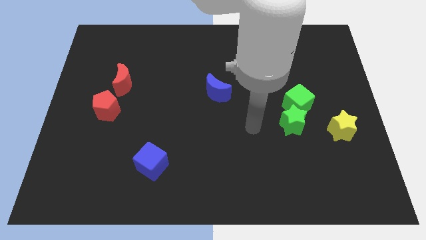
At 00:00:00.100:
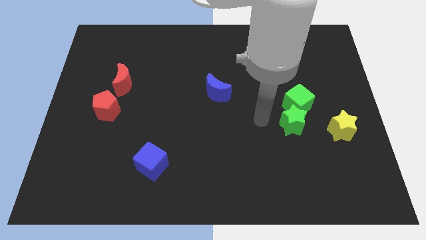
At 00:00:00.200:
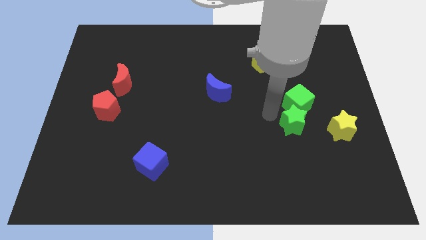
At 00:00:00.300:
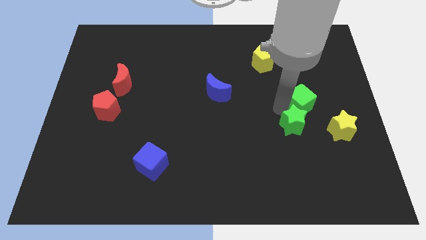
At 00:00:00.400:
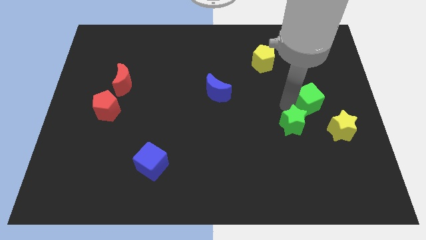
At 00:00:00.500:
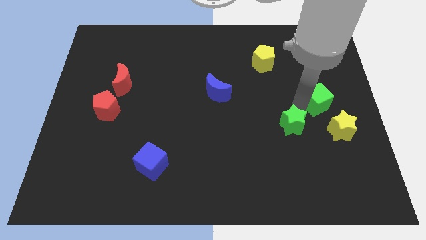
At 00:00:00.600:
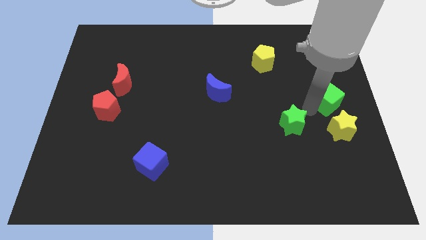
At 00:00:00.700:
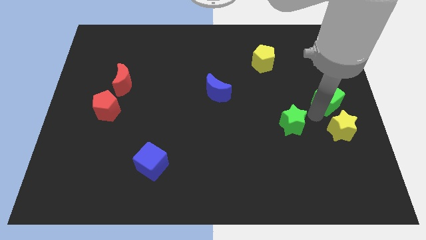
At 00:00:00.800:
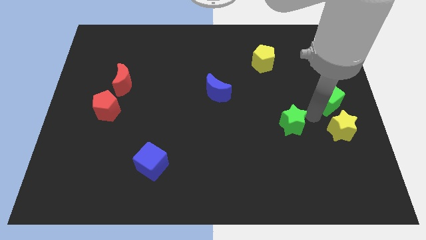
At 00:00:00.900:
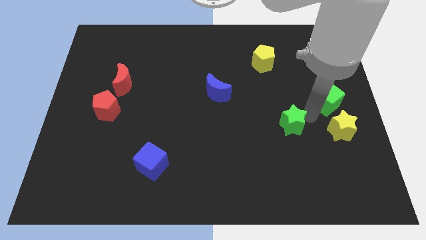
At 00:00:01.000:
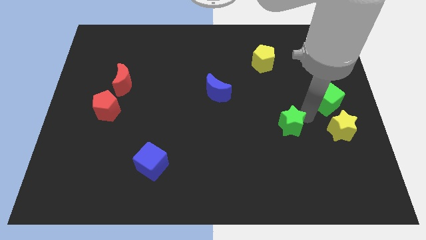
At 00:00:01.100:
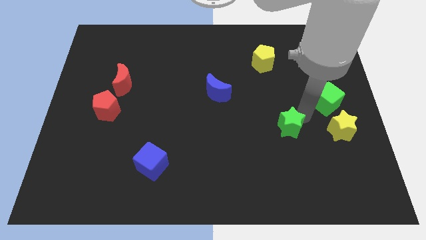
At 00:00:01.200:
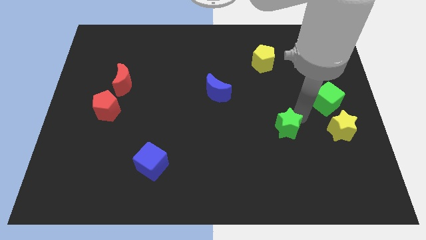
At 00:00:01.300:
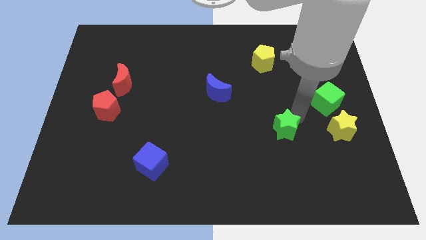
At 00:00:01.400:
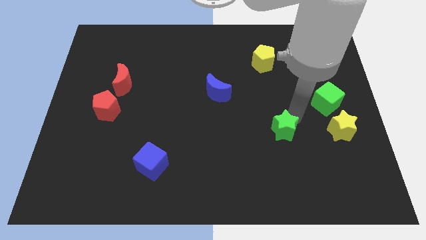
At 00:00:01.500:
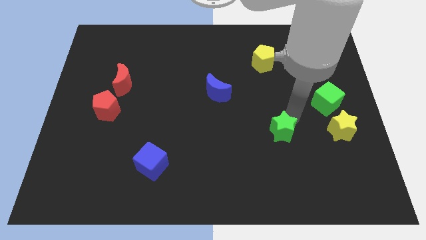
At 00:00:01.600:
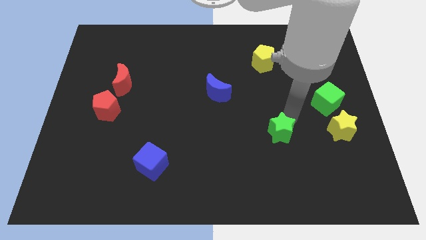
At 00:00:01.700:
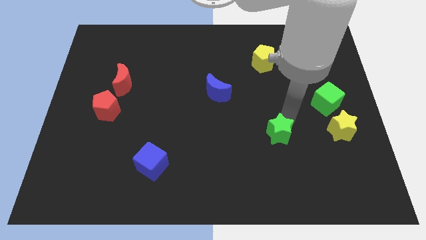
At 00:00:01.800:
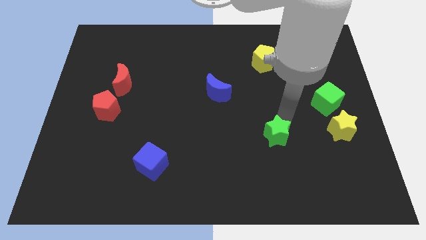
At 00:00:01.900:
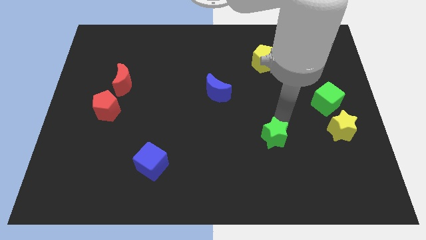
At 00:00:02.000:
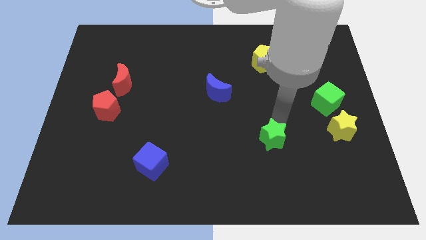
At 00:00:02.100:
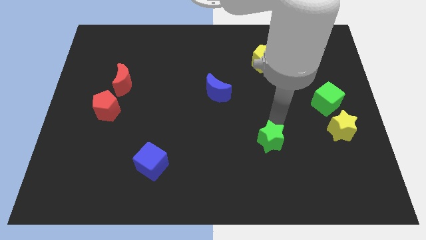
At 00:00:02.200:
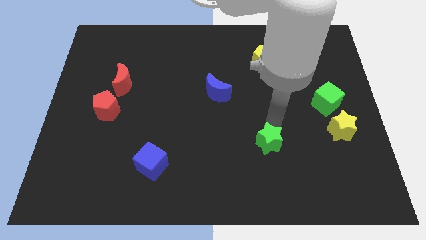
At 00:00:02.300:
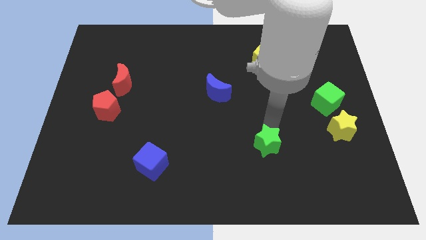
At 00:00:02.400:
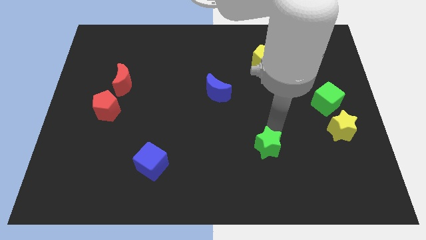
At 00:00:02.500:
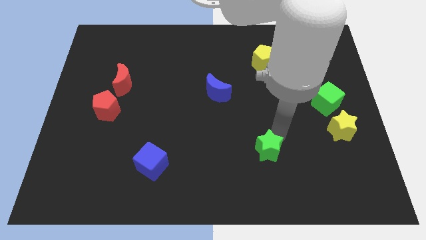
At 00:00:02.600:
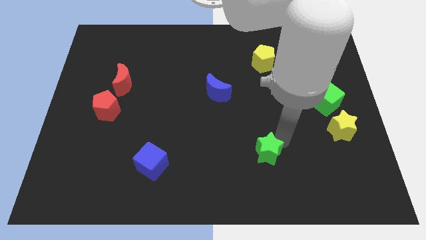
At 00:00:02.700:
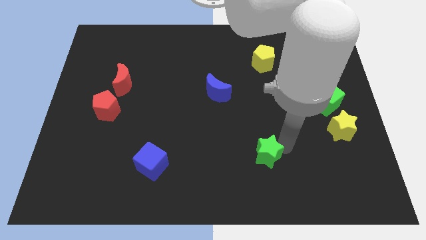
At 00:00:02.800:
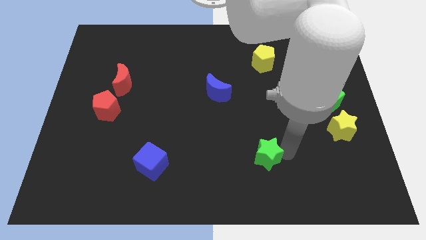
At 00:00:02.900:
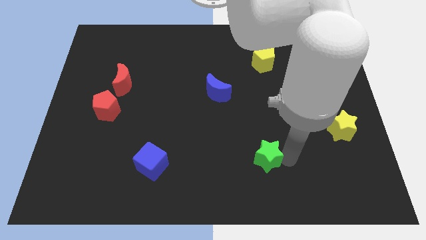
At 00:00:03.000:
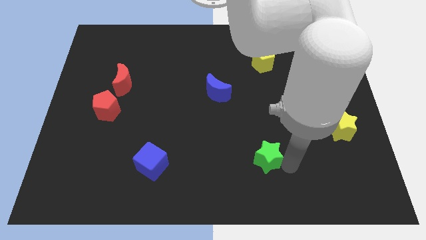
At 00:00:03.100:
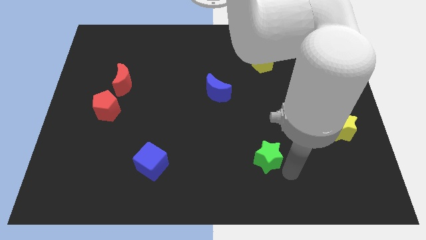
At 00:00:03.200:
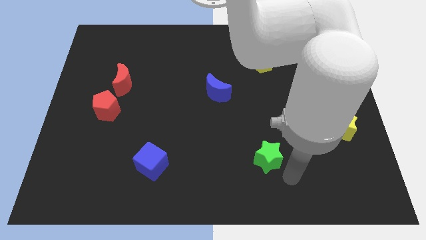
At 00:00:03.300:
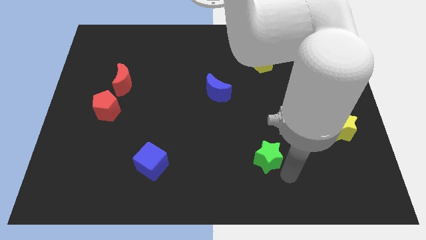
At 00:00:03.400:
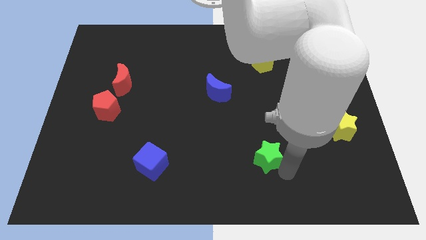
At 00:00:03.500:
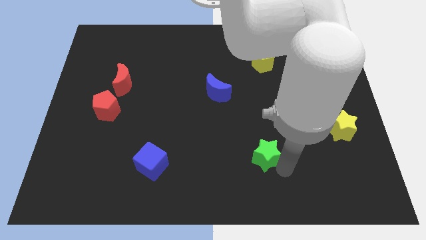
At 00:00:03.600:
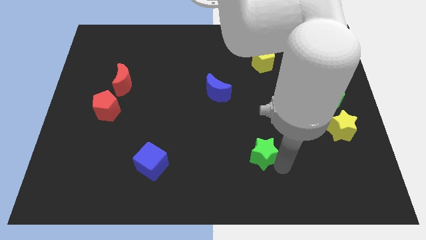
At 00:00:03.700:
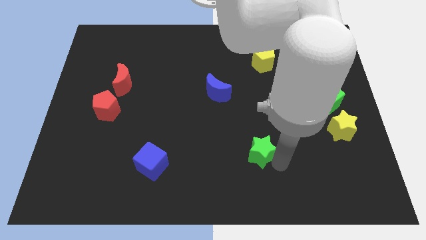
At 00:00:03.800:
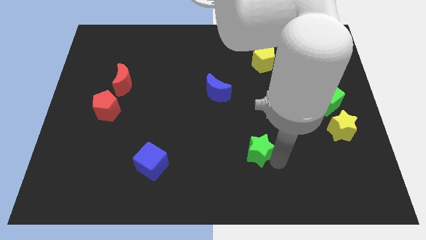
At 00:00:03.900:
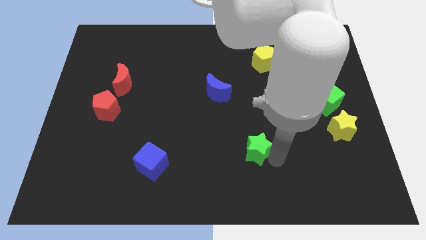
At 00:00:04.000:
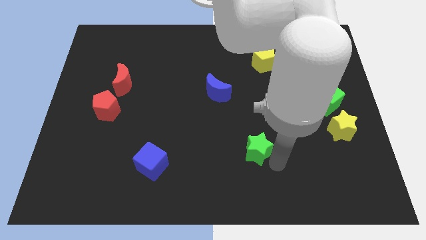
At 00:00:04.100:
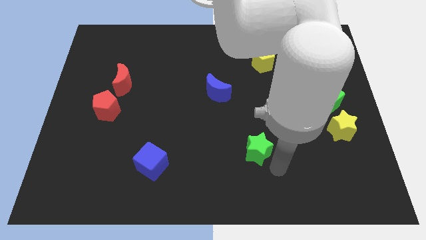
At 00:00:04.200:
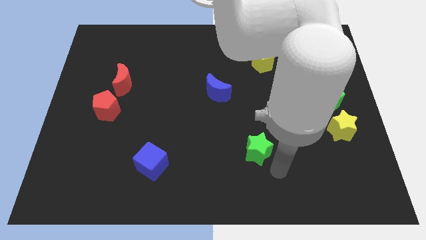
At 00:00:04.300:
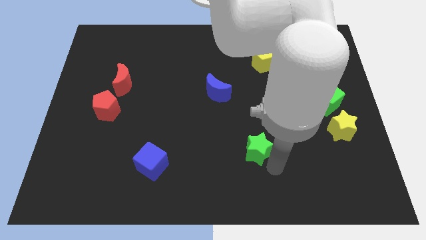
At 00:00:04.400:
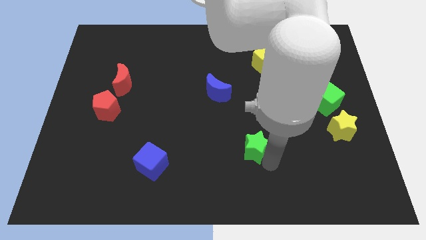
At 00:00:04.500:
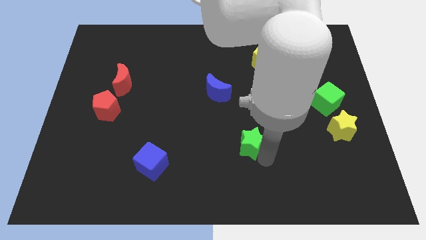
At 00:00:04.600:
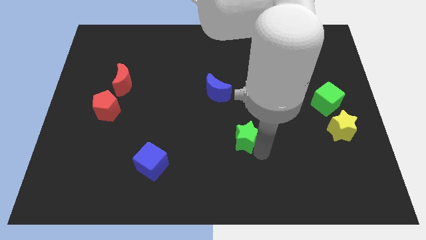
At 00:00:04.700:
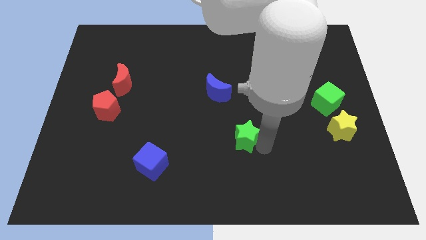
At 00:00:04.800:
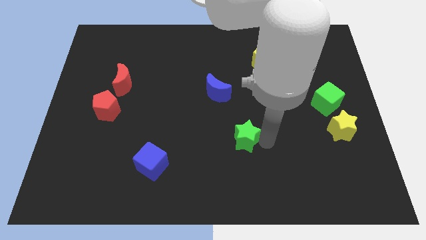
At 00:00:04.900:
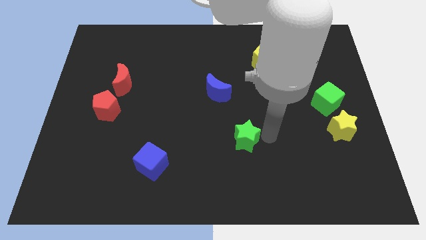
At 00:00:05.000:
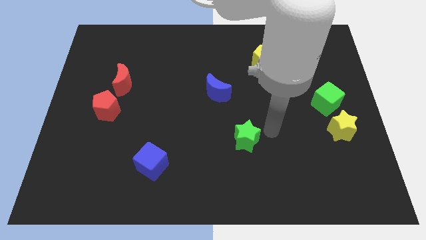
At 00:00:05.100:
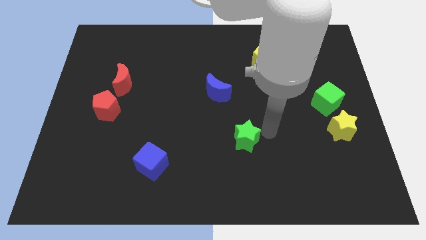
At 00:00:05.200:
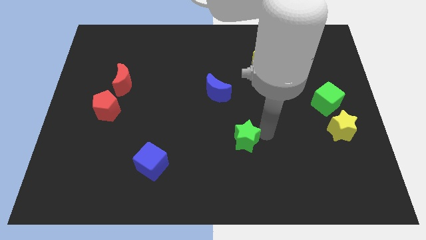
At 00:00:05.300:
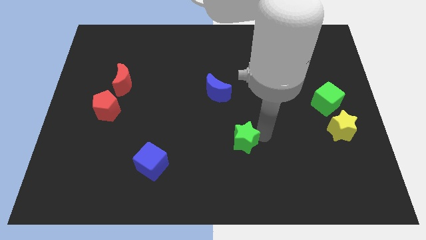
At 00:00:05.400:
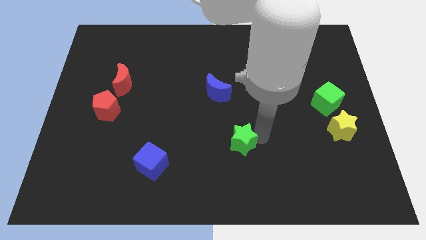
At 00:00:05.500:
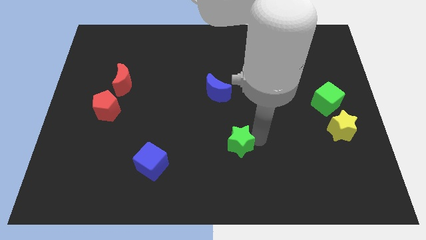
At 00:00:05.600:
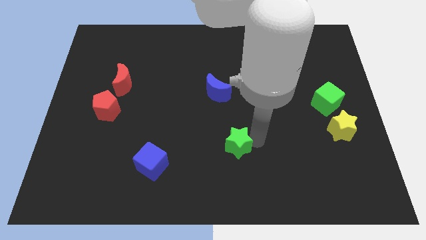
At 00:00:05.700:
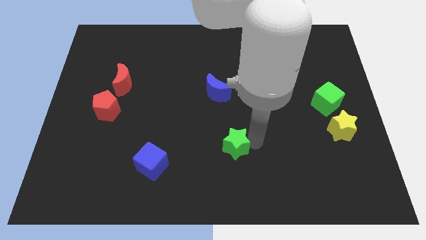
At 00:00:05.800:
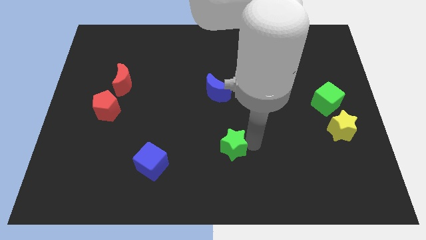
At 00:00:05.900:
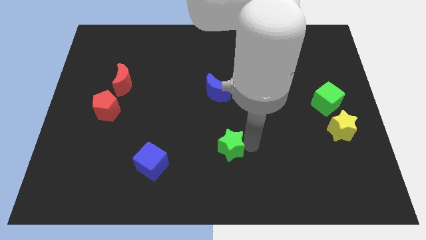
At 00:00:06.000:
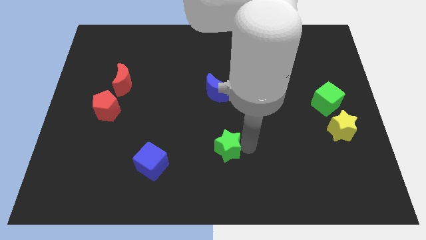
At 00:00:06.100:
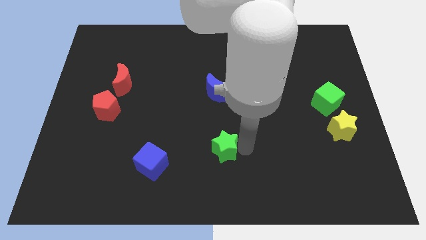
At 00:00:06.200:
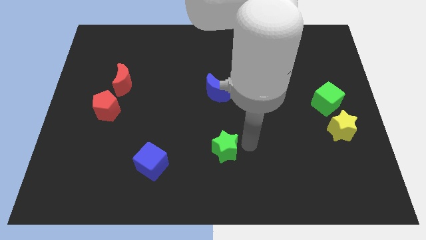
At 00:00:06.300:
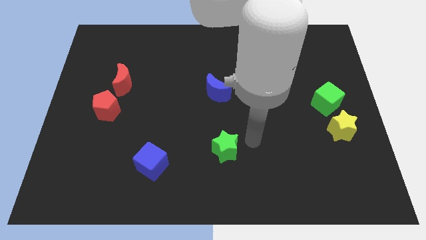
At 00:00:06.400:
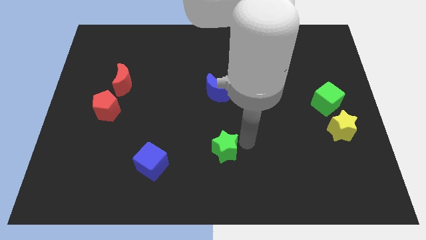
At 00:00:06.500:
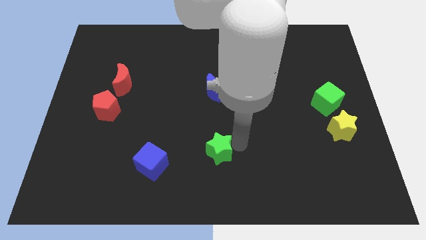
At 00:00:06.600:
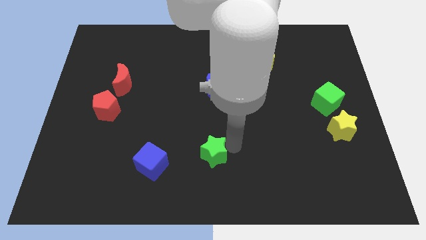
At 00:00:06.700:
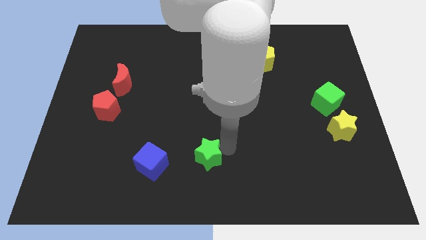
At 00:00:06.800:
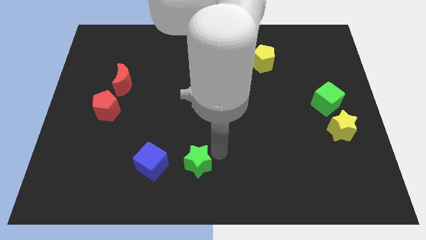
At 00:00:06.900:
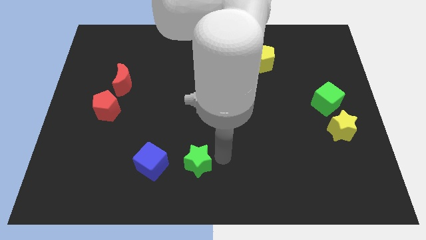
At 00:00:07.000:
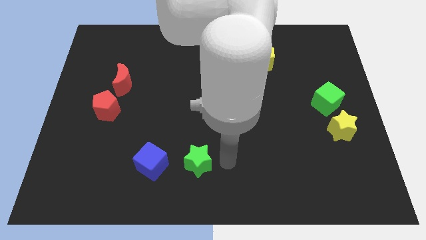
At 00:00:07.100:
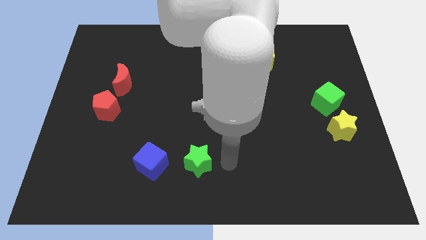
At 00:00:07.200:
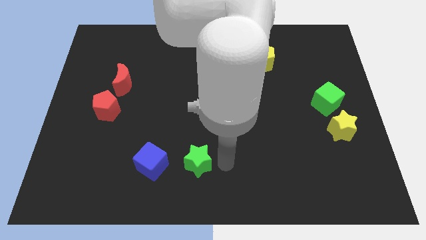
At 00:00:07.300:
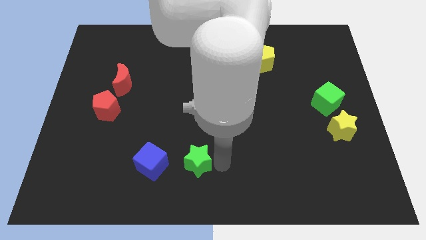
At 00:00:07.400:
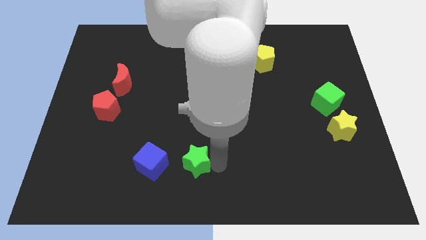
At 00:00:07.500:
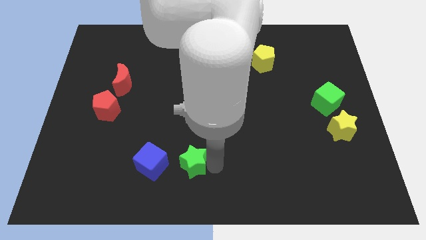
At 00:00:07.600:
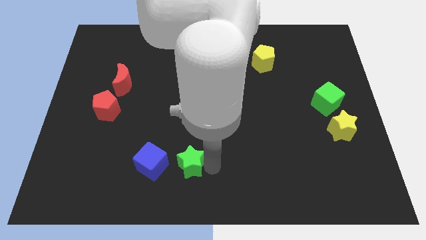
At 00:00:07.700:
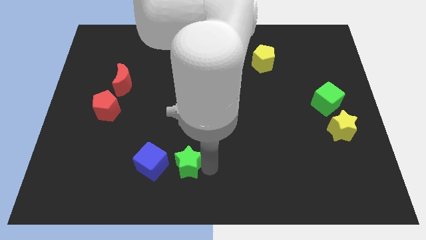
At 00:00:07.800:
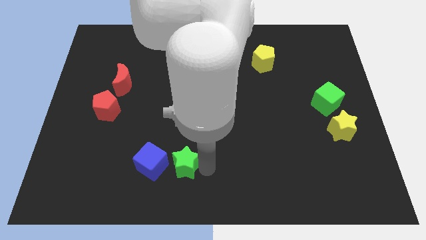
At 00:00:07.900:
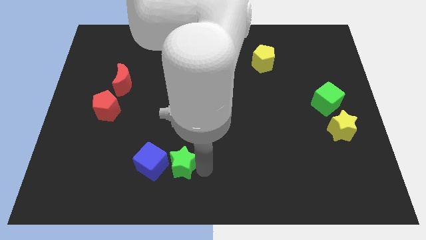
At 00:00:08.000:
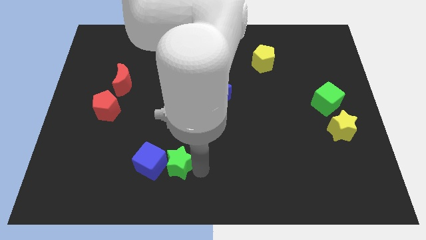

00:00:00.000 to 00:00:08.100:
slide the green star next to the blue cube
